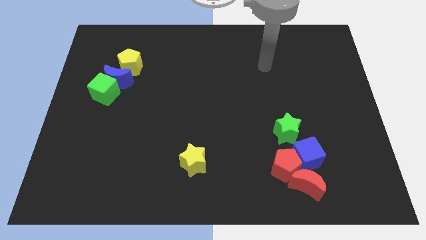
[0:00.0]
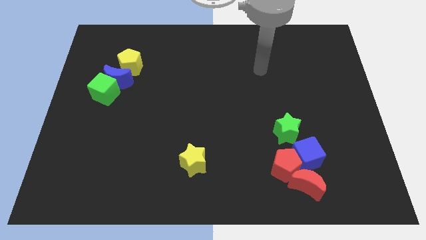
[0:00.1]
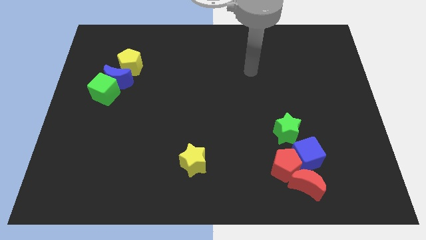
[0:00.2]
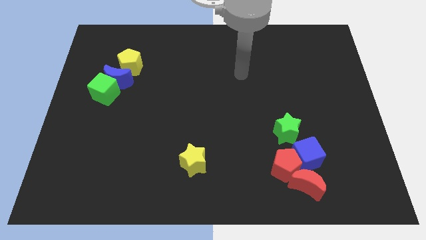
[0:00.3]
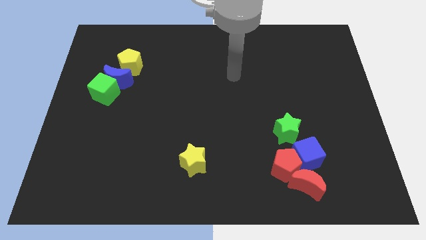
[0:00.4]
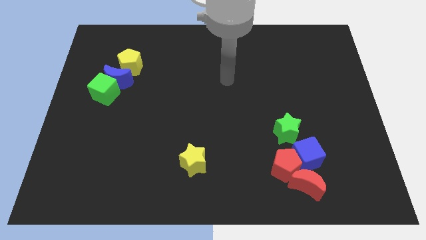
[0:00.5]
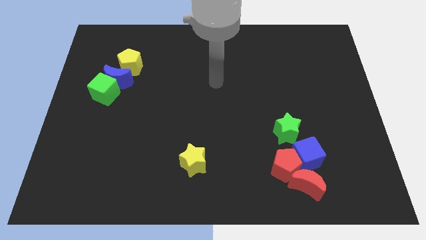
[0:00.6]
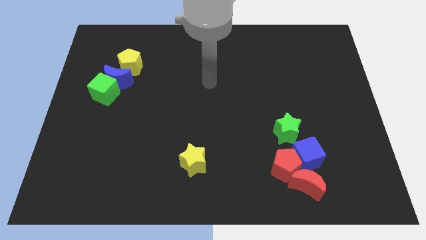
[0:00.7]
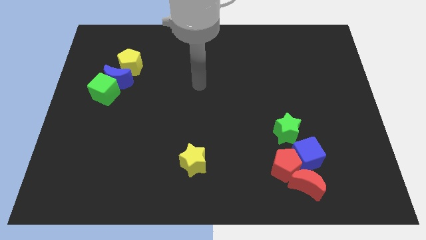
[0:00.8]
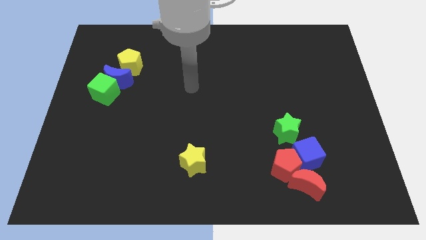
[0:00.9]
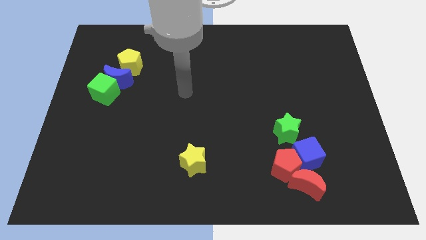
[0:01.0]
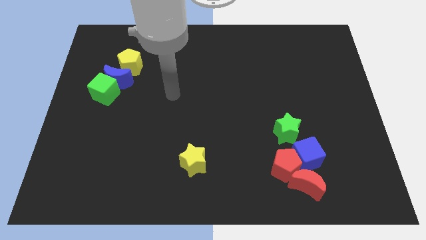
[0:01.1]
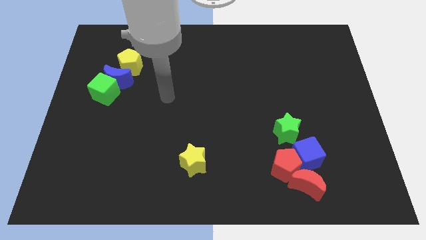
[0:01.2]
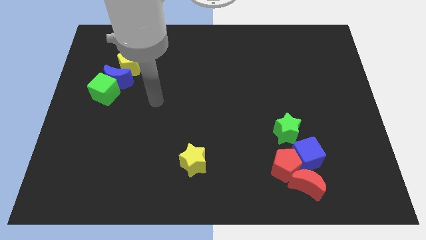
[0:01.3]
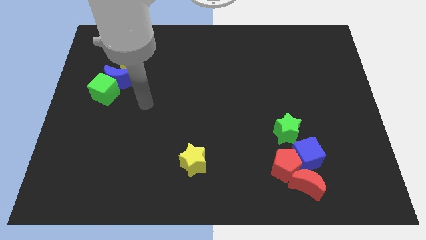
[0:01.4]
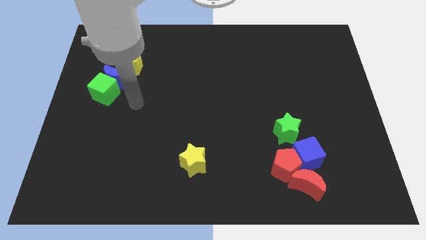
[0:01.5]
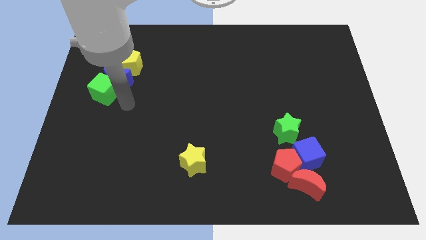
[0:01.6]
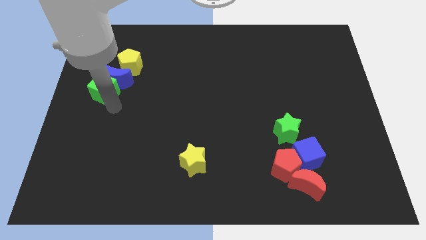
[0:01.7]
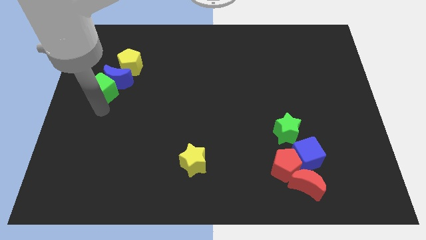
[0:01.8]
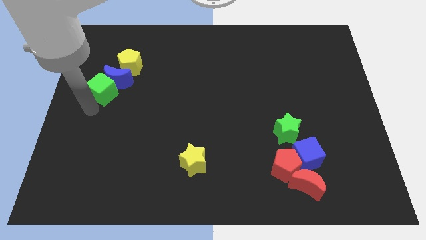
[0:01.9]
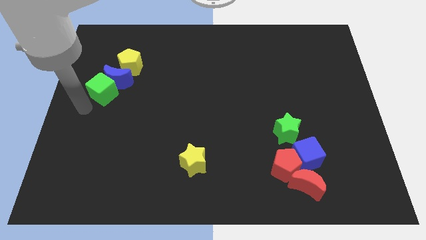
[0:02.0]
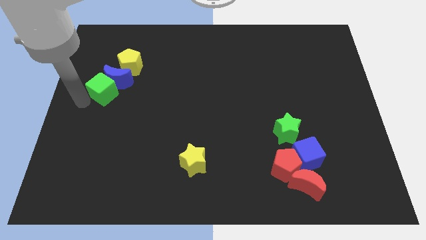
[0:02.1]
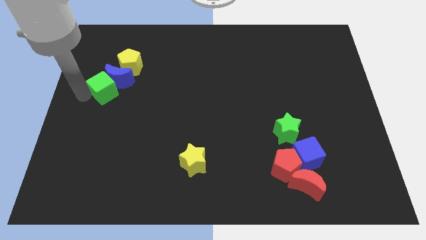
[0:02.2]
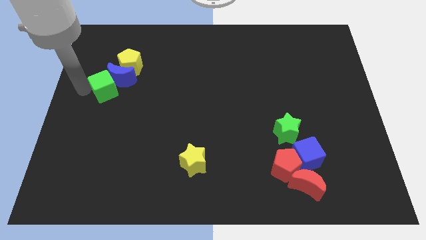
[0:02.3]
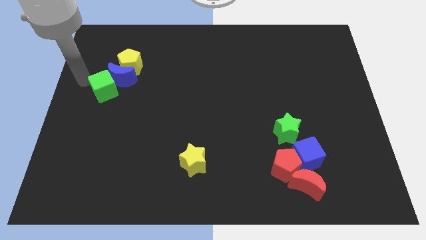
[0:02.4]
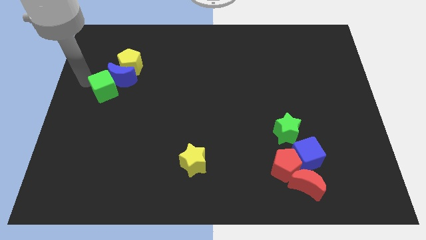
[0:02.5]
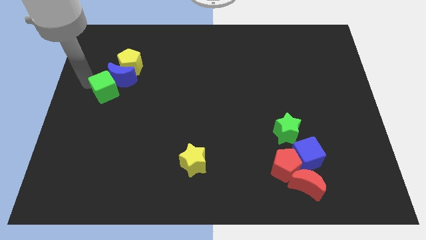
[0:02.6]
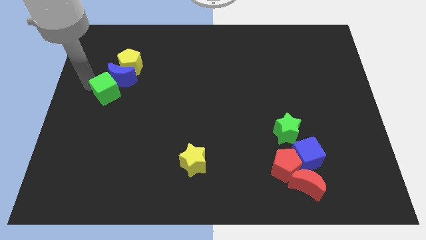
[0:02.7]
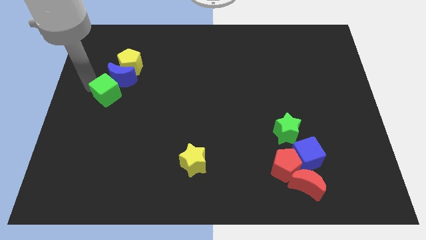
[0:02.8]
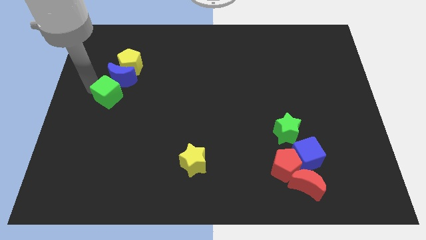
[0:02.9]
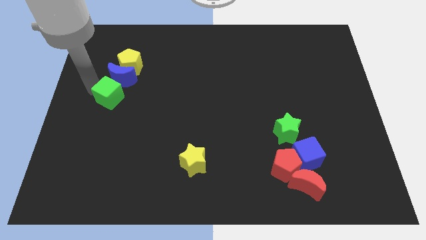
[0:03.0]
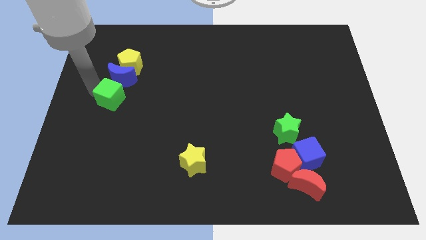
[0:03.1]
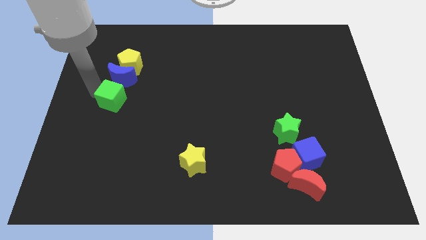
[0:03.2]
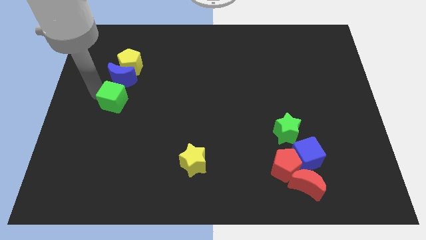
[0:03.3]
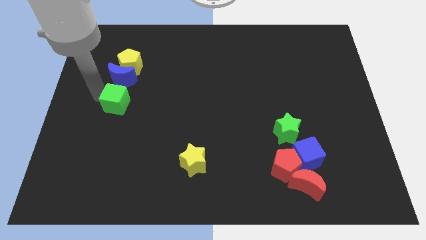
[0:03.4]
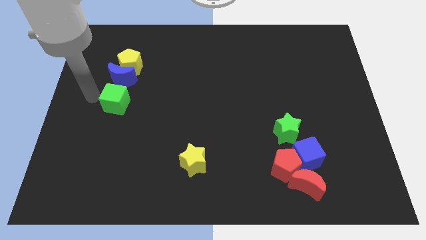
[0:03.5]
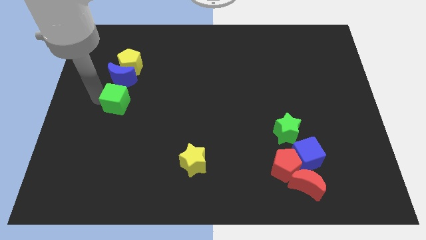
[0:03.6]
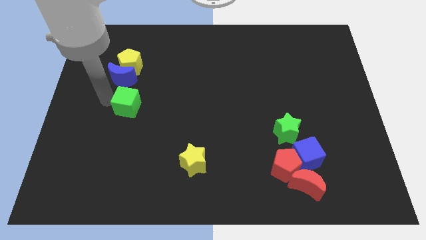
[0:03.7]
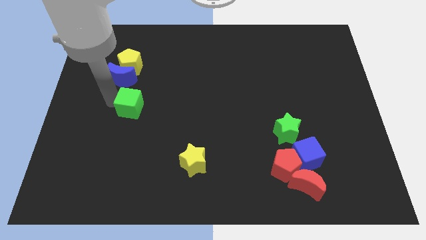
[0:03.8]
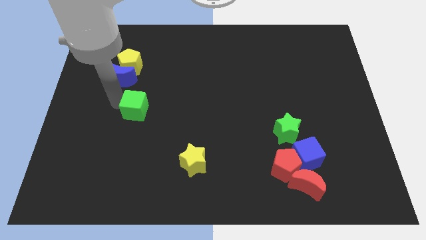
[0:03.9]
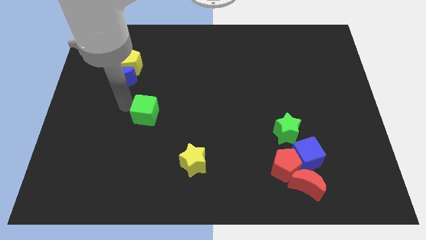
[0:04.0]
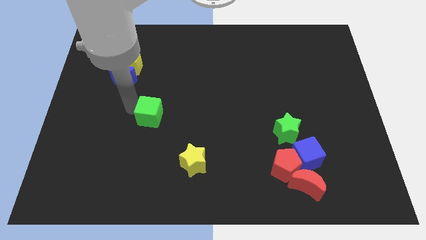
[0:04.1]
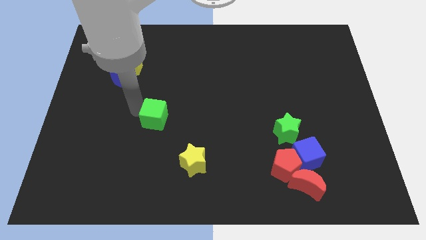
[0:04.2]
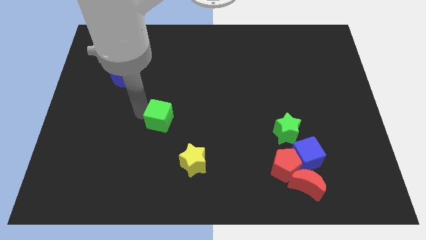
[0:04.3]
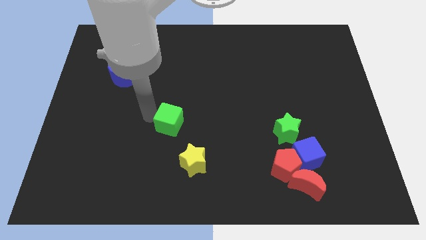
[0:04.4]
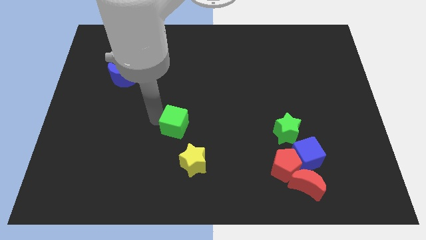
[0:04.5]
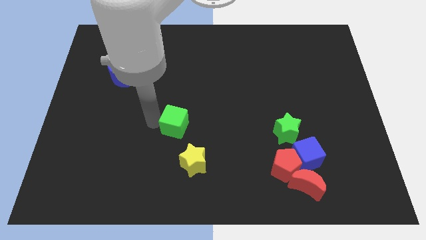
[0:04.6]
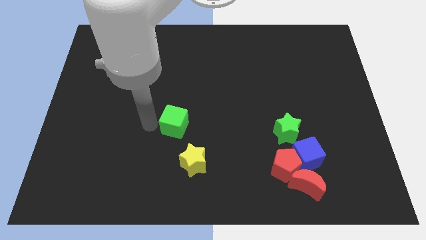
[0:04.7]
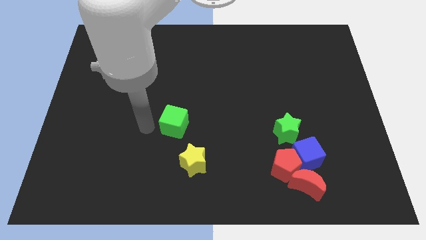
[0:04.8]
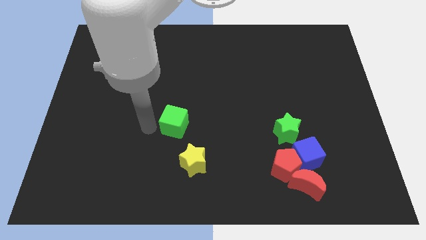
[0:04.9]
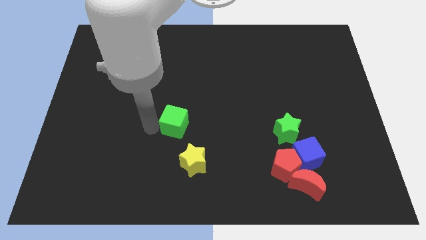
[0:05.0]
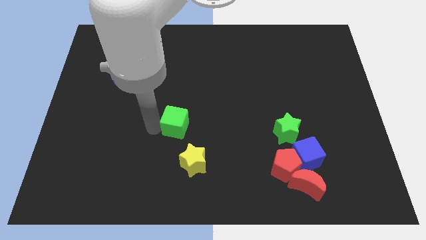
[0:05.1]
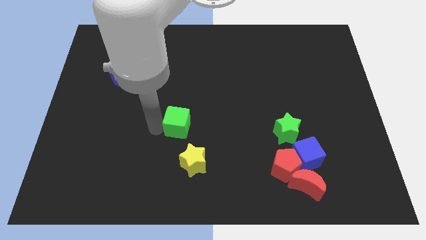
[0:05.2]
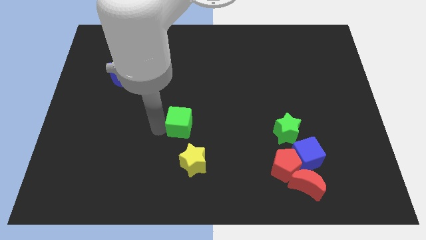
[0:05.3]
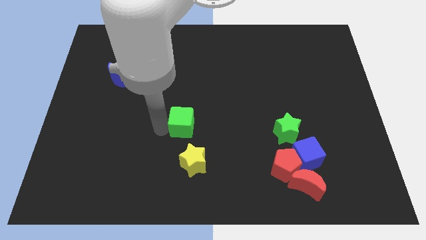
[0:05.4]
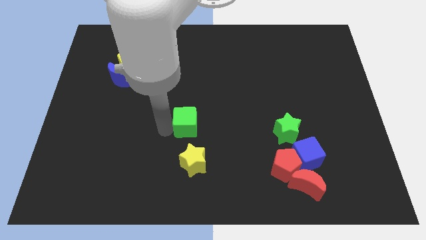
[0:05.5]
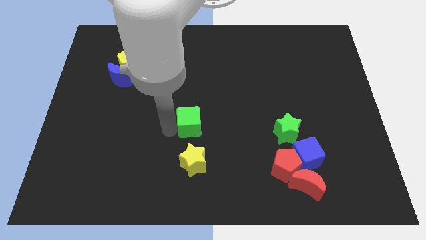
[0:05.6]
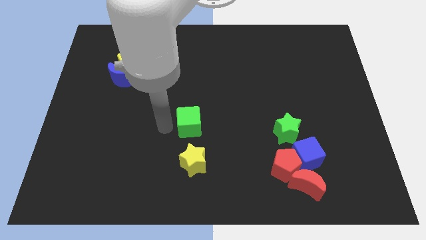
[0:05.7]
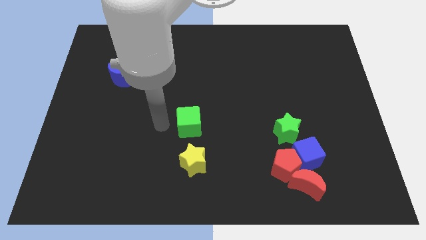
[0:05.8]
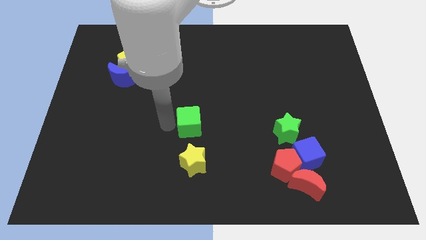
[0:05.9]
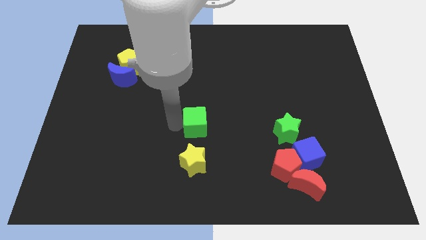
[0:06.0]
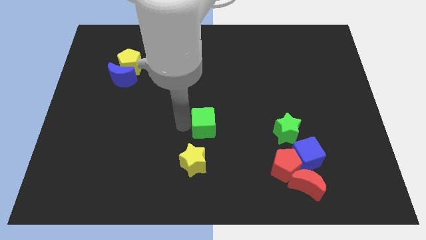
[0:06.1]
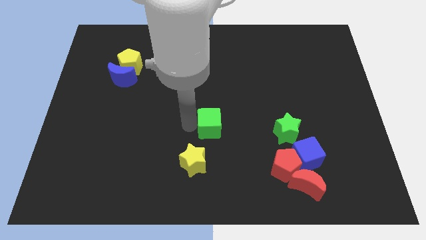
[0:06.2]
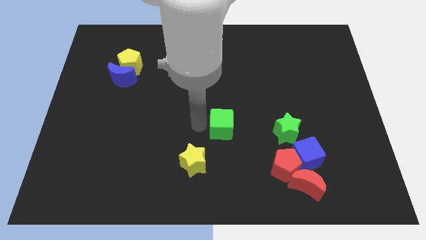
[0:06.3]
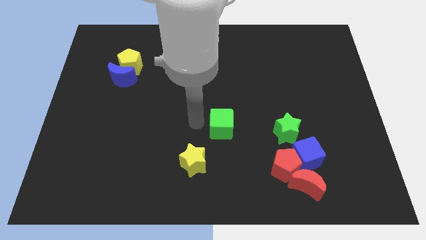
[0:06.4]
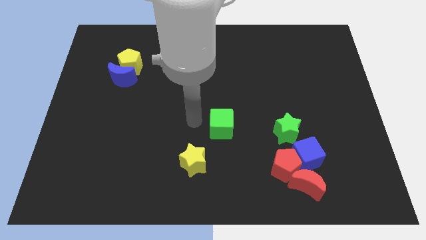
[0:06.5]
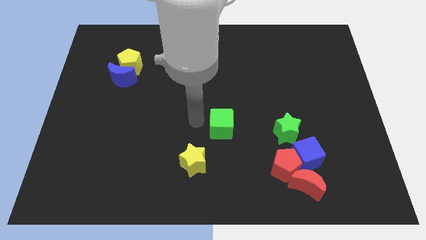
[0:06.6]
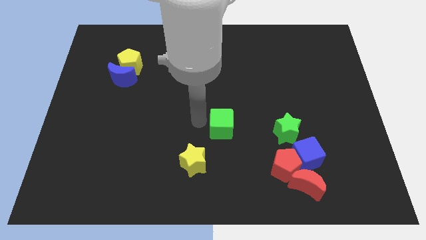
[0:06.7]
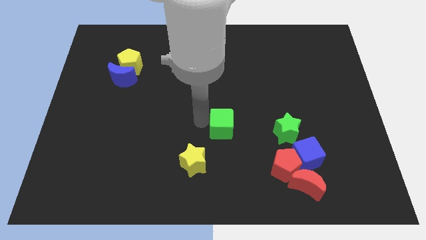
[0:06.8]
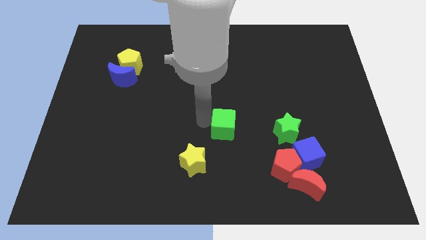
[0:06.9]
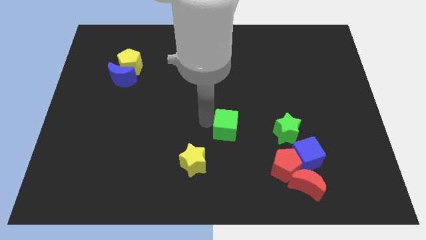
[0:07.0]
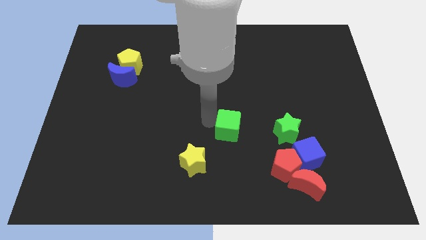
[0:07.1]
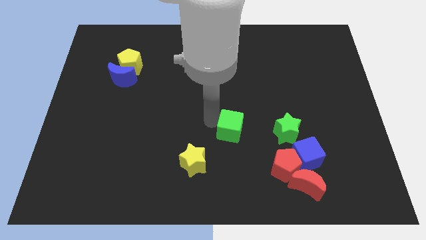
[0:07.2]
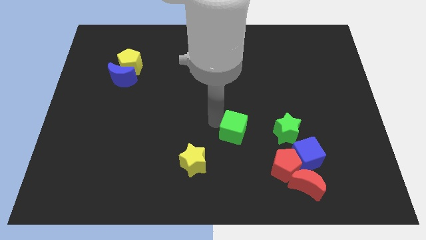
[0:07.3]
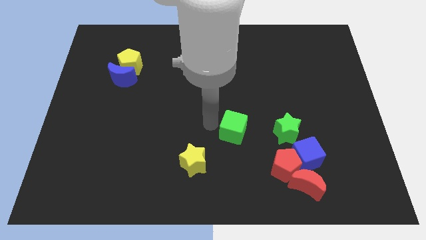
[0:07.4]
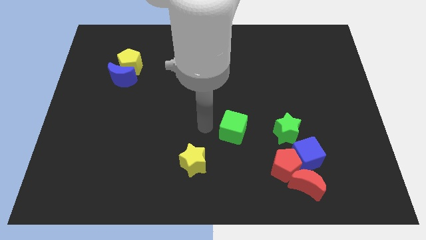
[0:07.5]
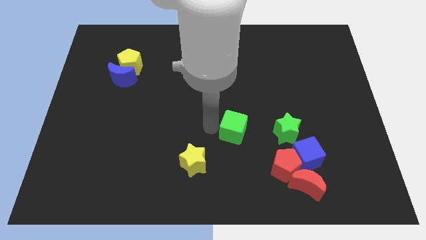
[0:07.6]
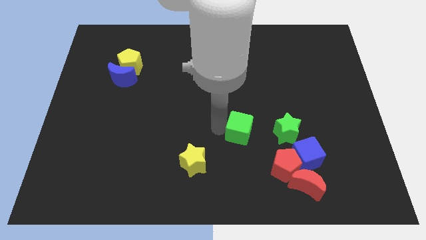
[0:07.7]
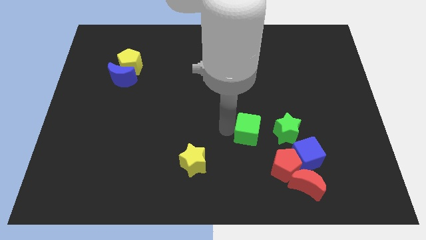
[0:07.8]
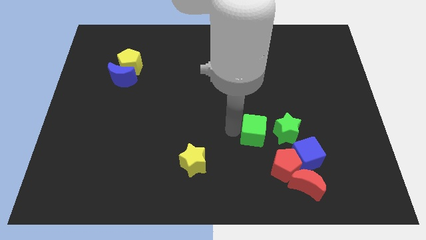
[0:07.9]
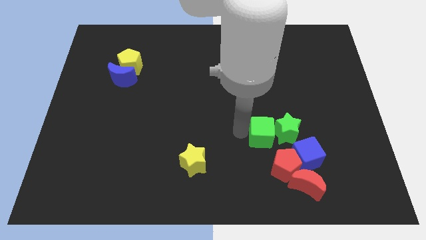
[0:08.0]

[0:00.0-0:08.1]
move the green cube towards the green star
